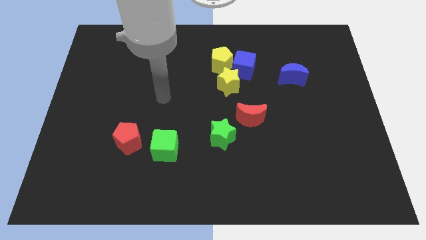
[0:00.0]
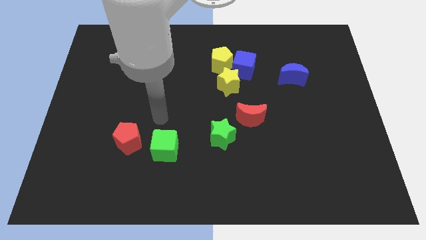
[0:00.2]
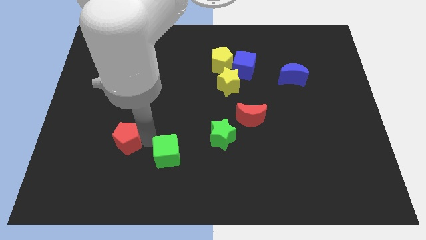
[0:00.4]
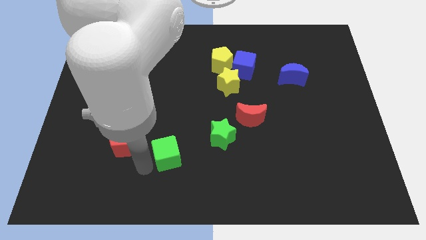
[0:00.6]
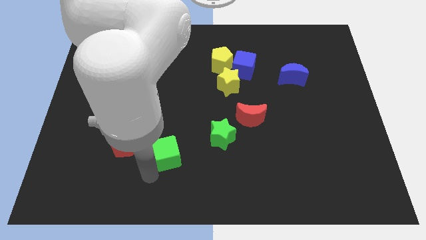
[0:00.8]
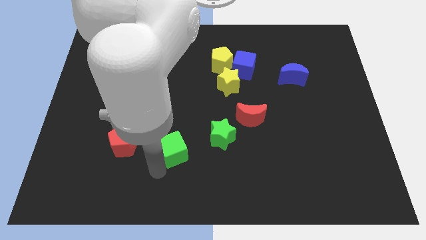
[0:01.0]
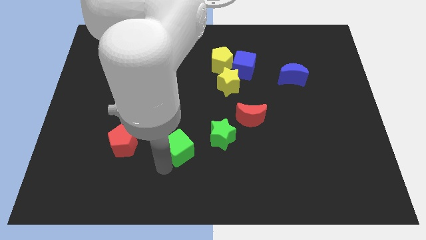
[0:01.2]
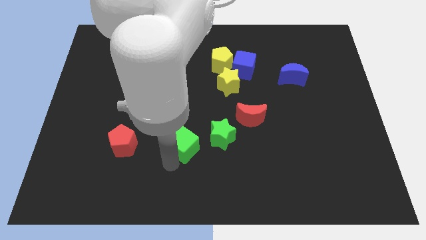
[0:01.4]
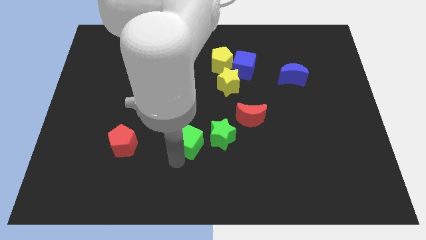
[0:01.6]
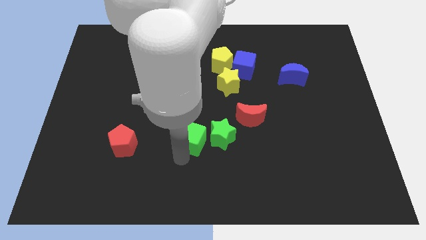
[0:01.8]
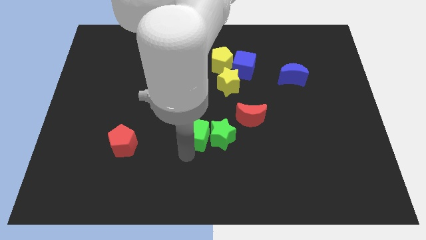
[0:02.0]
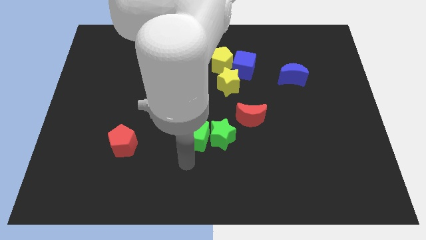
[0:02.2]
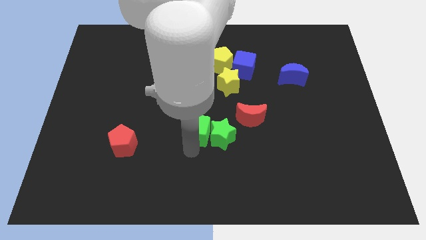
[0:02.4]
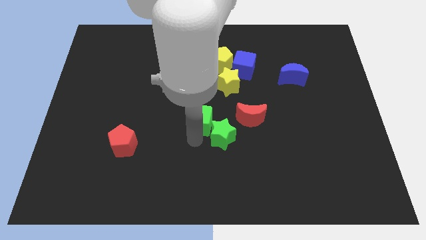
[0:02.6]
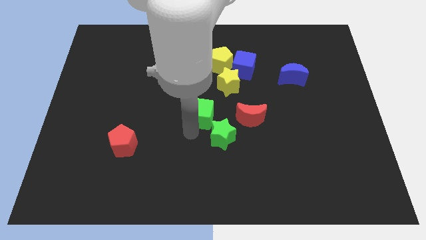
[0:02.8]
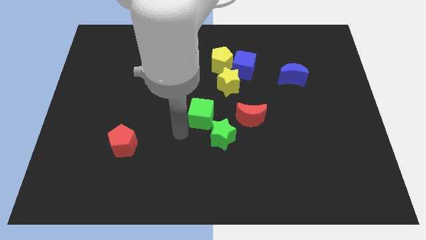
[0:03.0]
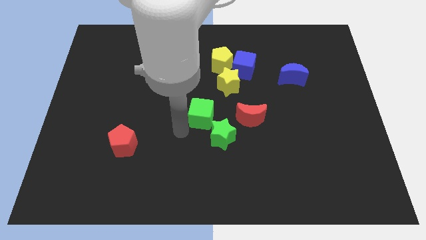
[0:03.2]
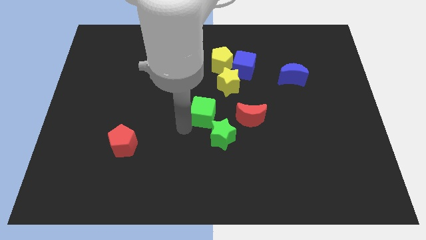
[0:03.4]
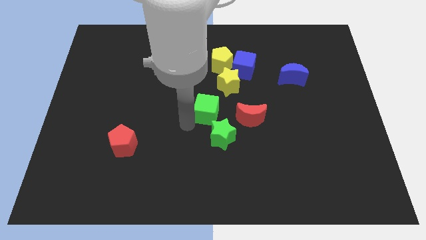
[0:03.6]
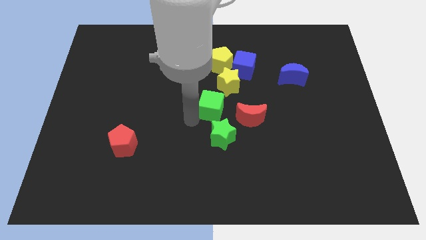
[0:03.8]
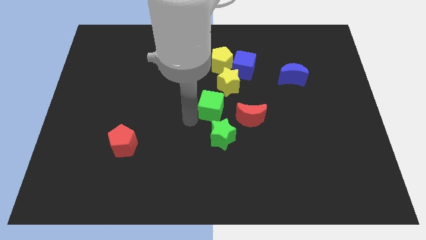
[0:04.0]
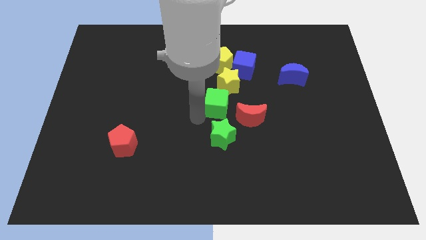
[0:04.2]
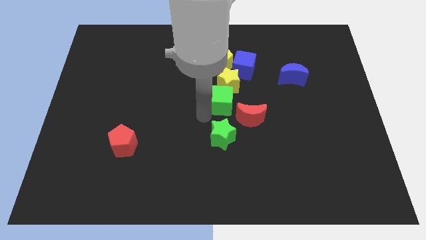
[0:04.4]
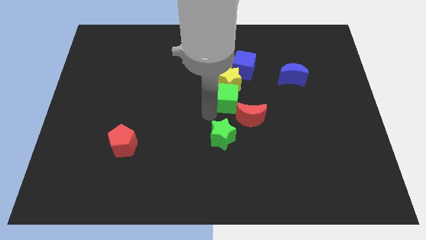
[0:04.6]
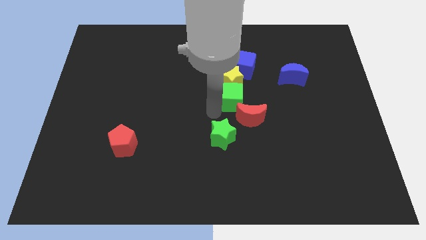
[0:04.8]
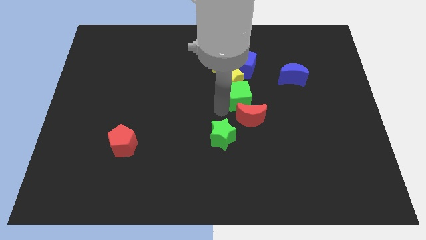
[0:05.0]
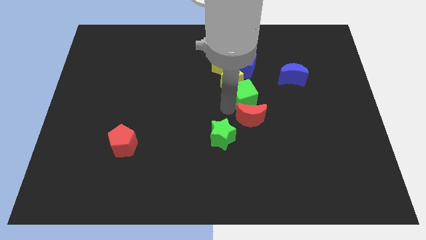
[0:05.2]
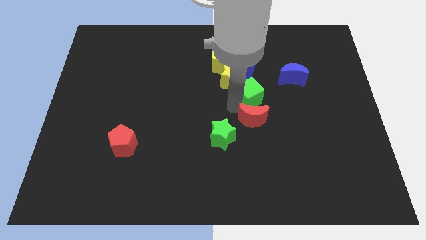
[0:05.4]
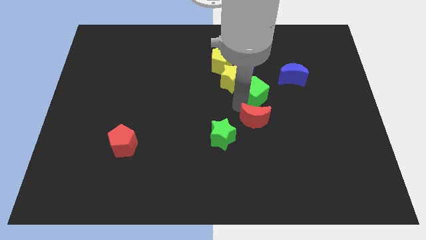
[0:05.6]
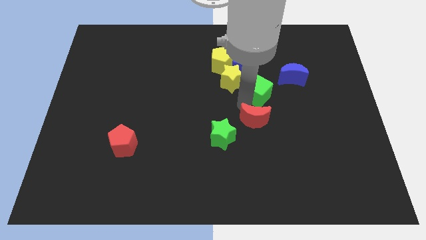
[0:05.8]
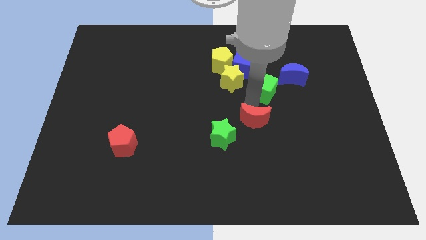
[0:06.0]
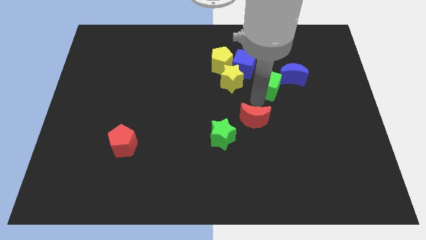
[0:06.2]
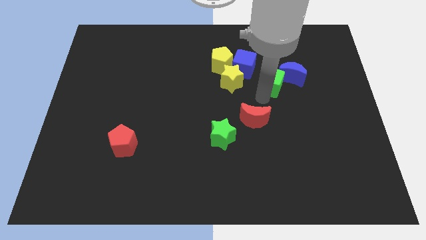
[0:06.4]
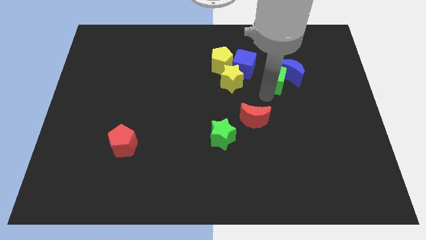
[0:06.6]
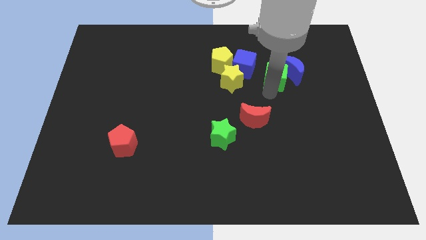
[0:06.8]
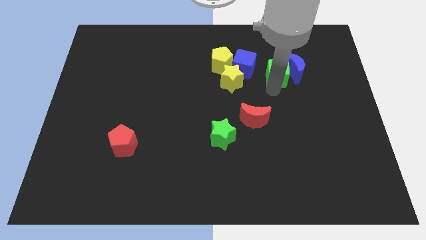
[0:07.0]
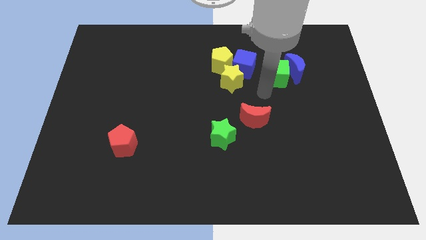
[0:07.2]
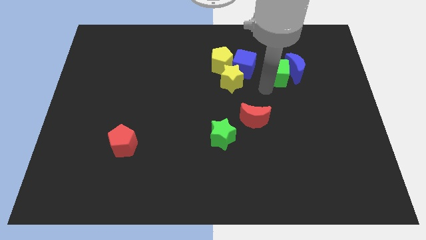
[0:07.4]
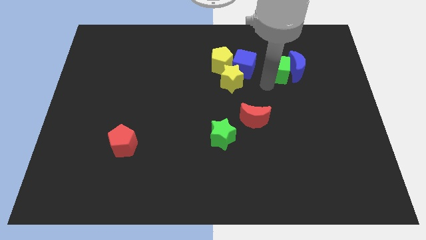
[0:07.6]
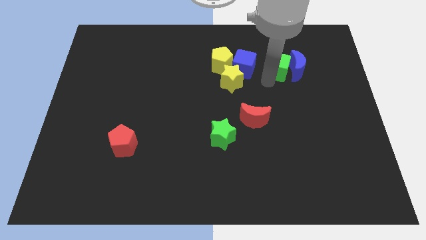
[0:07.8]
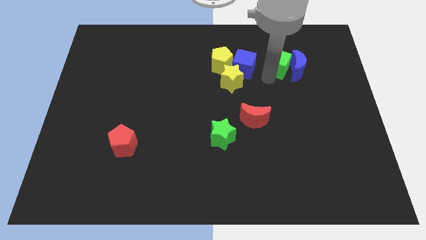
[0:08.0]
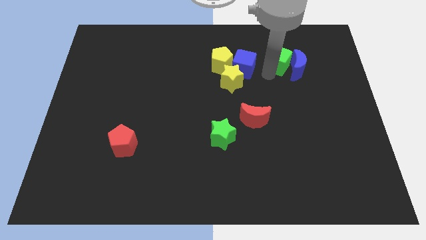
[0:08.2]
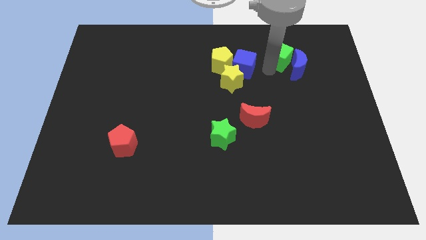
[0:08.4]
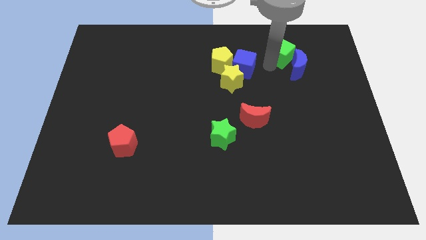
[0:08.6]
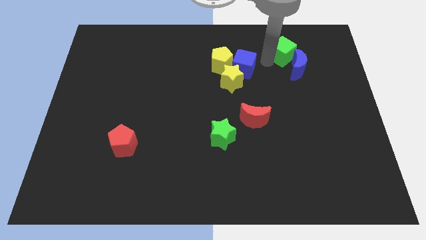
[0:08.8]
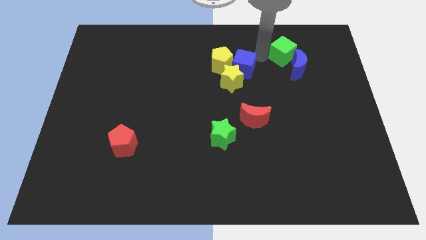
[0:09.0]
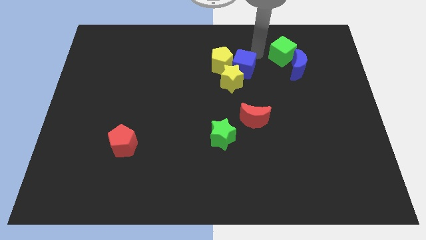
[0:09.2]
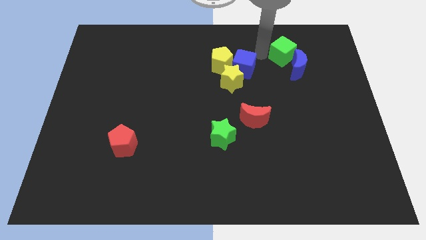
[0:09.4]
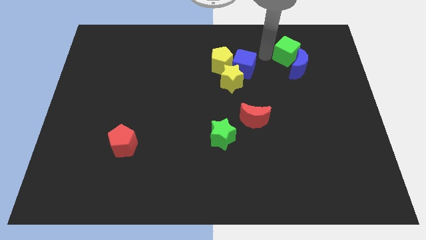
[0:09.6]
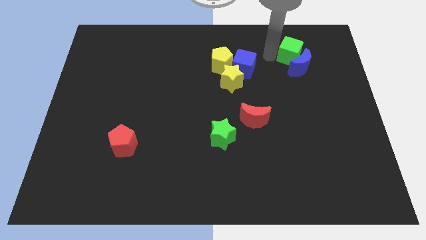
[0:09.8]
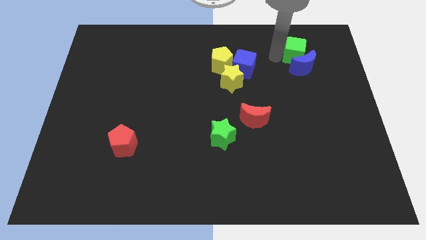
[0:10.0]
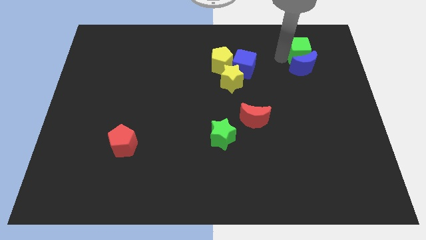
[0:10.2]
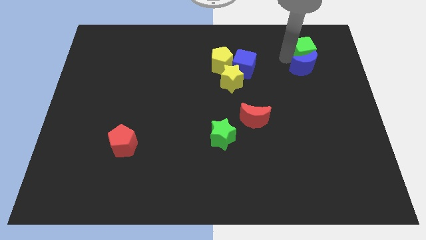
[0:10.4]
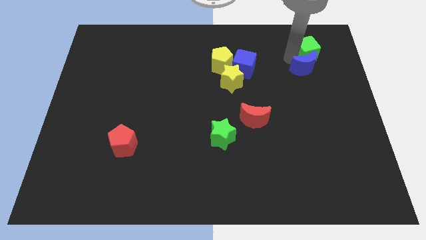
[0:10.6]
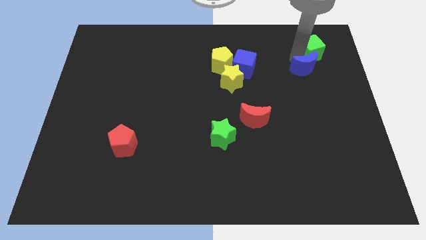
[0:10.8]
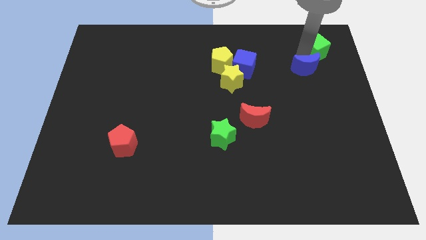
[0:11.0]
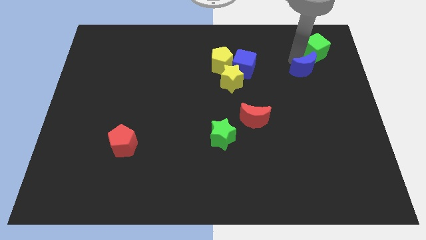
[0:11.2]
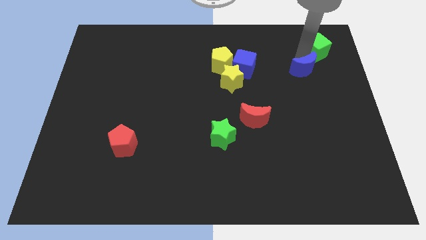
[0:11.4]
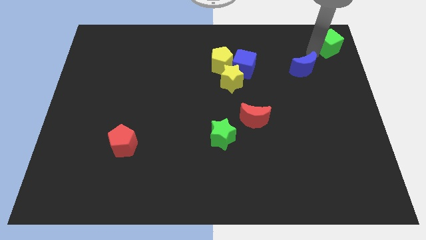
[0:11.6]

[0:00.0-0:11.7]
move the green cube to the top right
